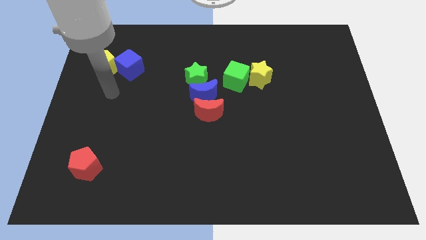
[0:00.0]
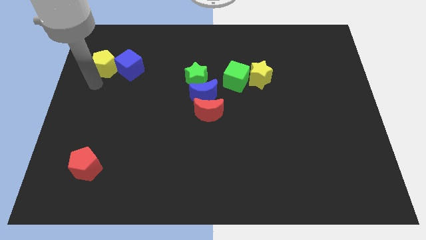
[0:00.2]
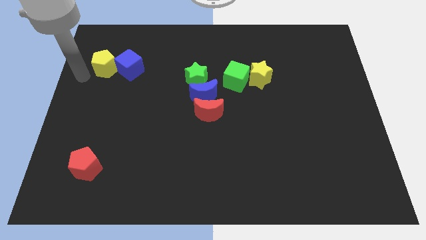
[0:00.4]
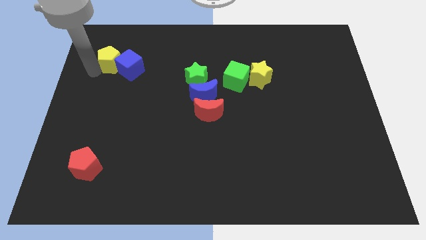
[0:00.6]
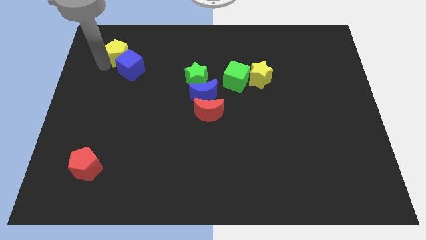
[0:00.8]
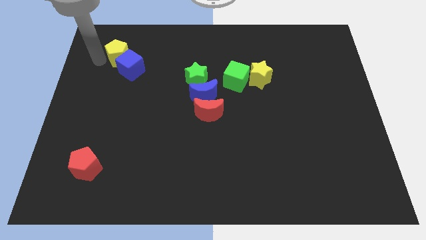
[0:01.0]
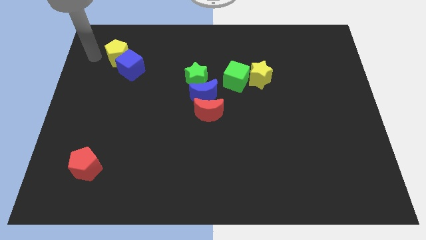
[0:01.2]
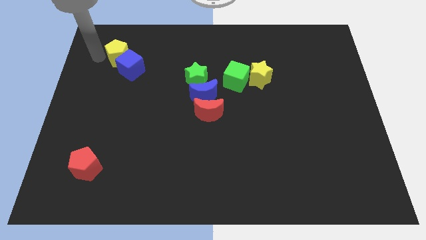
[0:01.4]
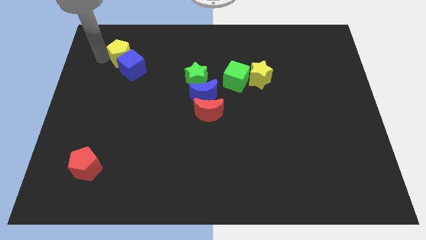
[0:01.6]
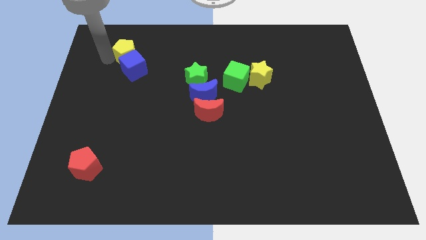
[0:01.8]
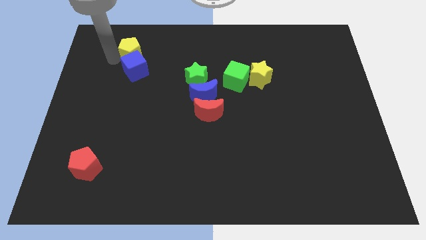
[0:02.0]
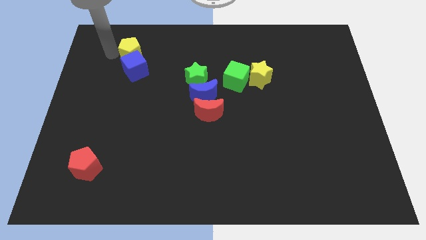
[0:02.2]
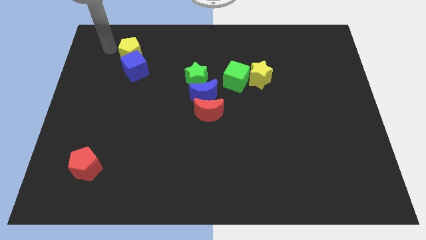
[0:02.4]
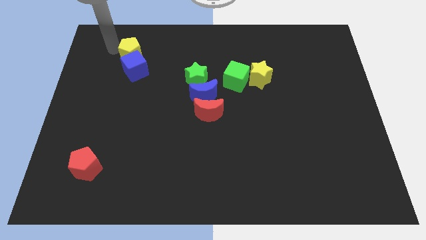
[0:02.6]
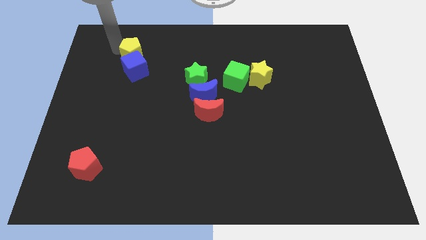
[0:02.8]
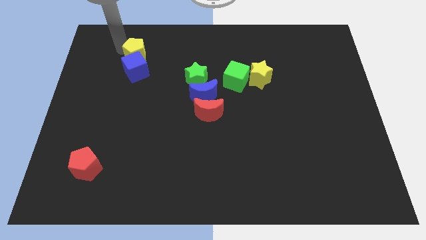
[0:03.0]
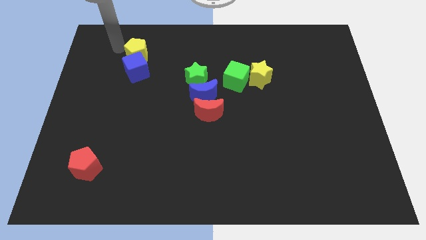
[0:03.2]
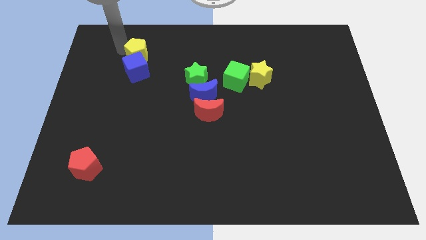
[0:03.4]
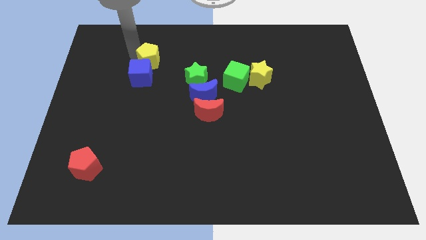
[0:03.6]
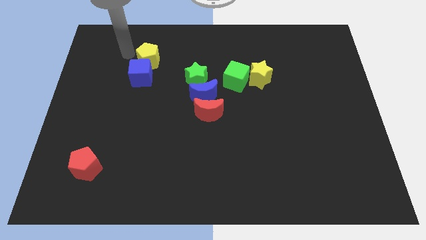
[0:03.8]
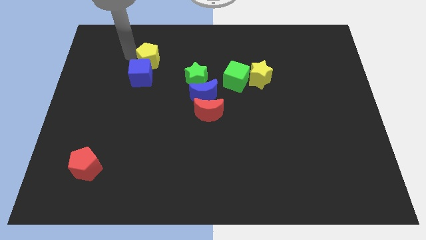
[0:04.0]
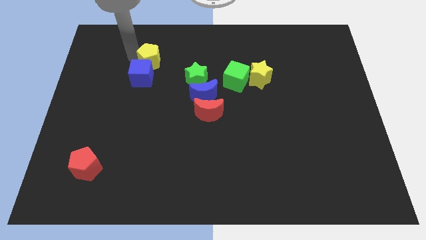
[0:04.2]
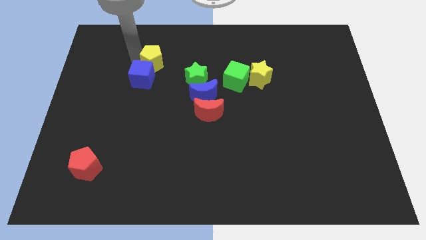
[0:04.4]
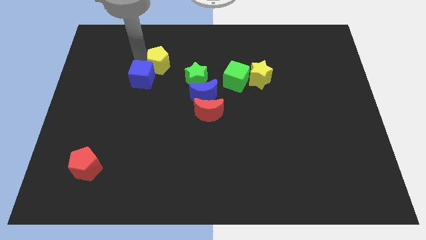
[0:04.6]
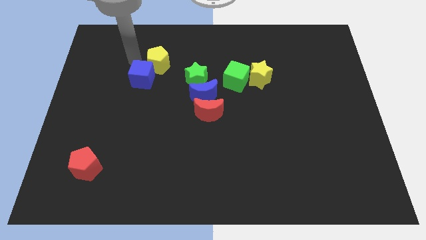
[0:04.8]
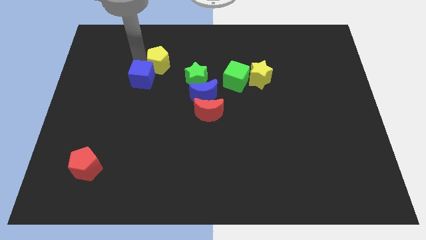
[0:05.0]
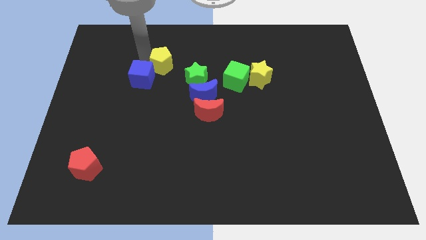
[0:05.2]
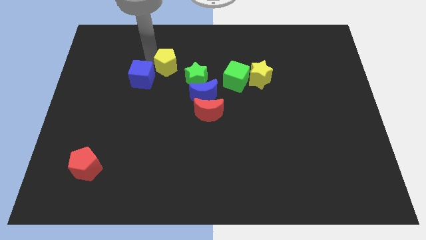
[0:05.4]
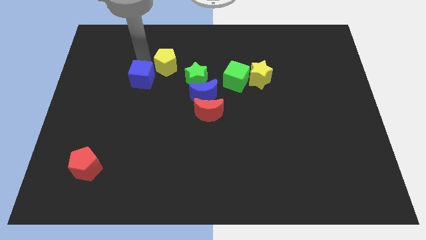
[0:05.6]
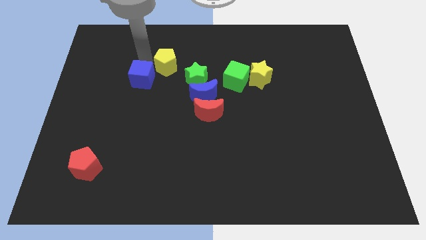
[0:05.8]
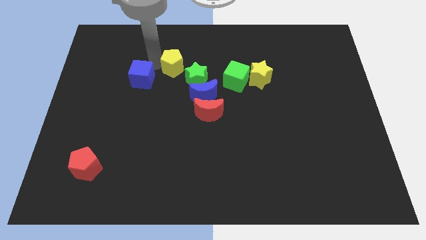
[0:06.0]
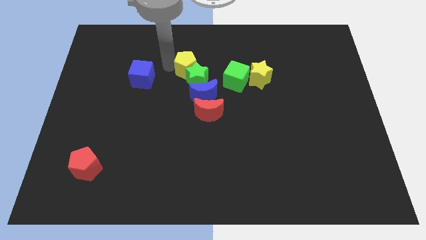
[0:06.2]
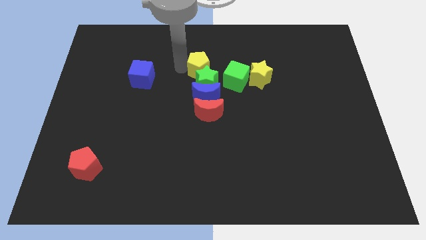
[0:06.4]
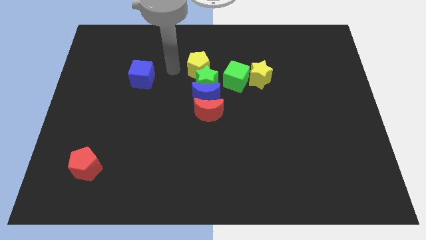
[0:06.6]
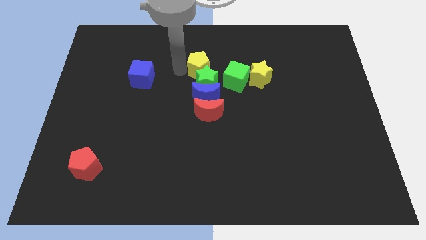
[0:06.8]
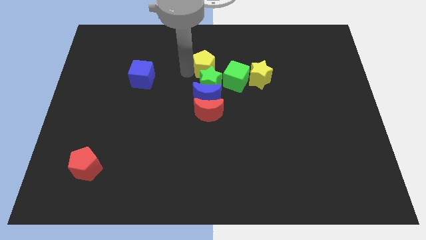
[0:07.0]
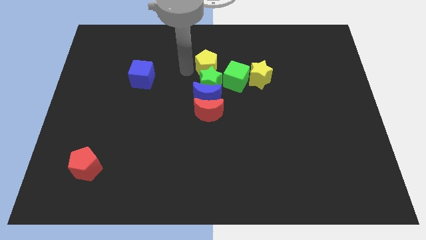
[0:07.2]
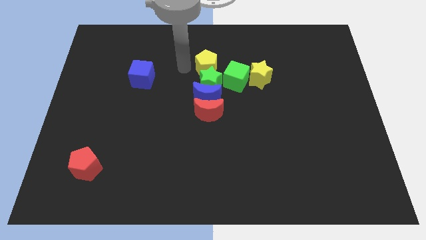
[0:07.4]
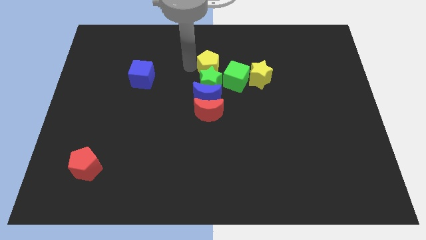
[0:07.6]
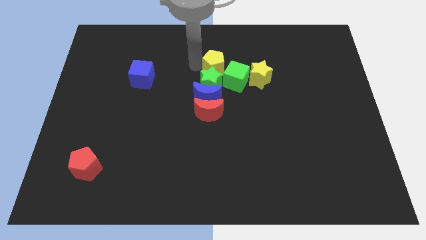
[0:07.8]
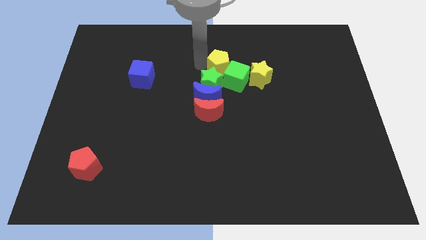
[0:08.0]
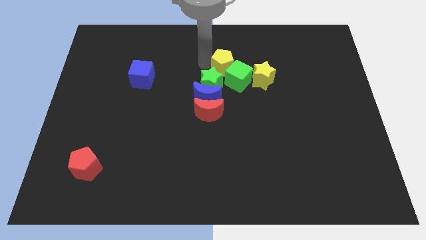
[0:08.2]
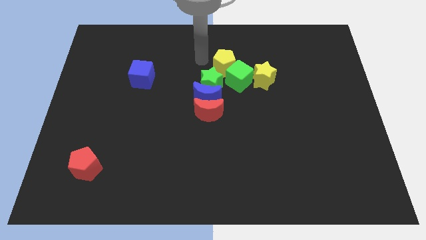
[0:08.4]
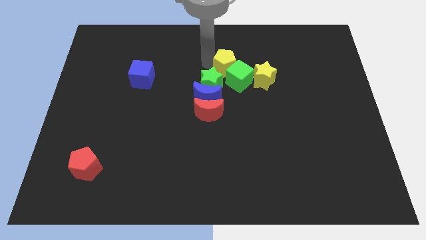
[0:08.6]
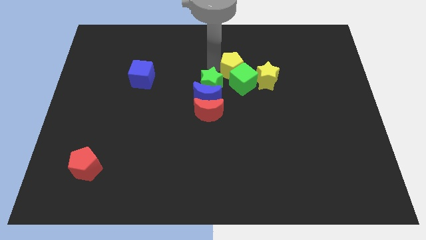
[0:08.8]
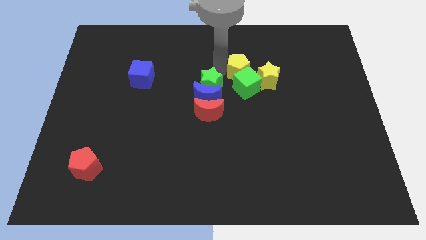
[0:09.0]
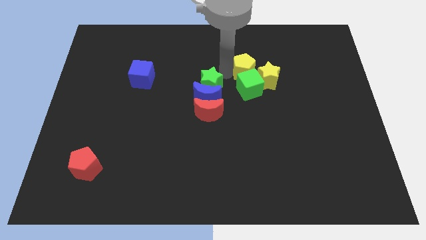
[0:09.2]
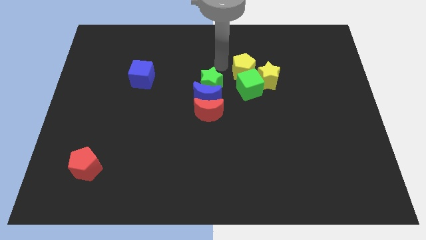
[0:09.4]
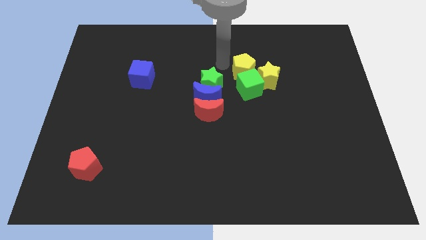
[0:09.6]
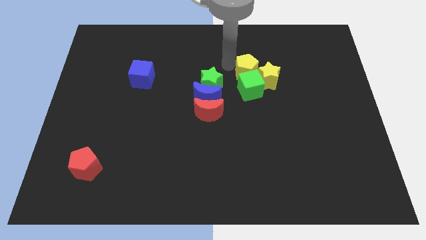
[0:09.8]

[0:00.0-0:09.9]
put the yellow pentagon close to the yellow star

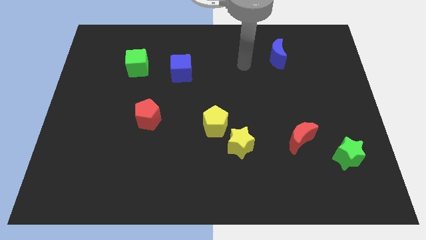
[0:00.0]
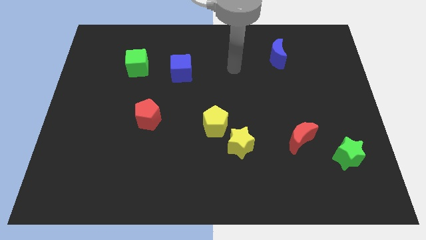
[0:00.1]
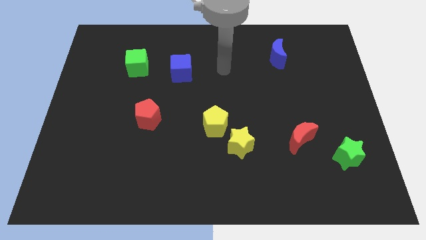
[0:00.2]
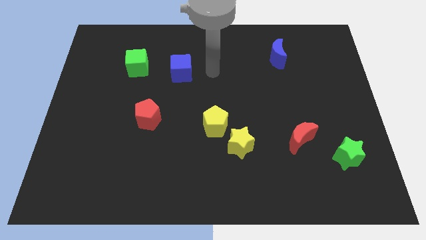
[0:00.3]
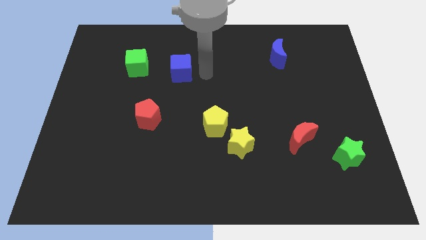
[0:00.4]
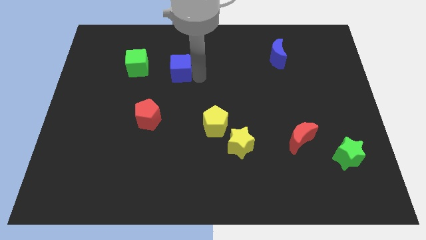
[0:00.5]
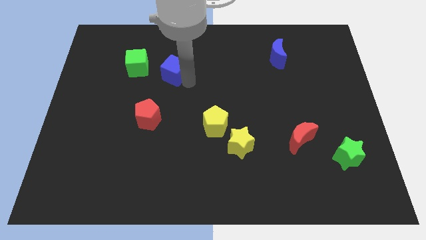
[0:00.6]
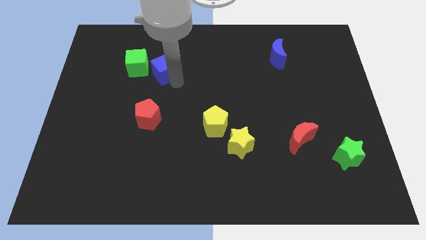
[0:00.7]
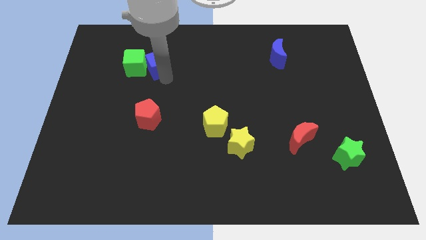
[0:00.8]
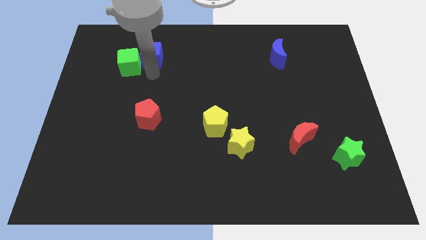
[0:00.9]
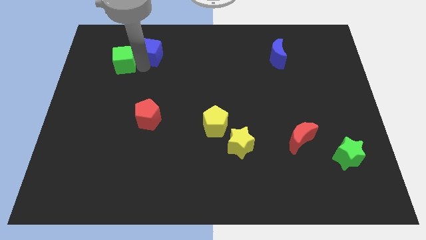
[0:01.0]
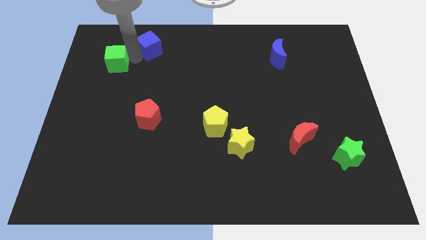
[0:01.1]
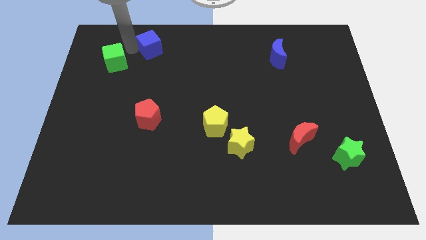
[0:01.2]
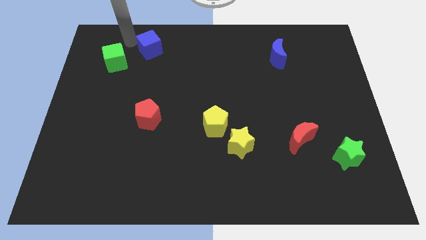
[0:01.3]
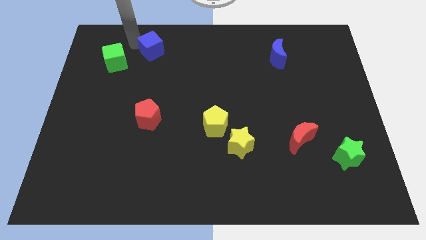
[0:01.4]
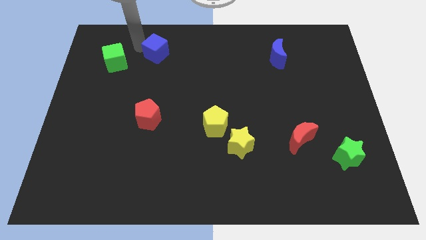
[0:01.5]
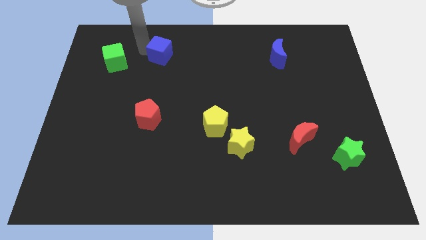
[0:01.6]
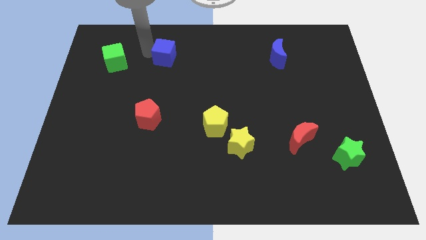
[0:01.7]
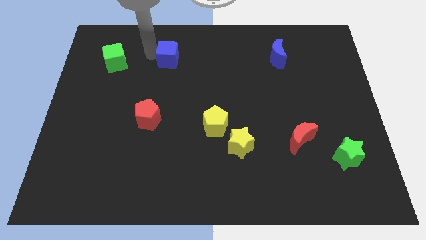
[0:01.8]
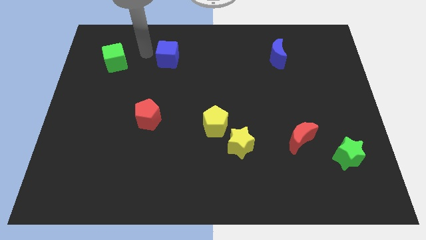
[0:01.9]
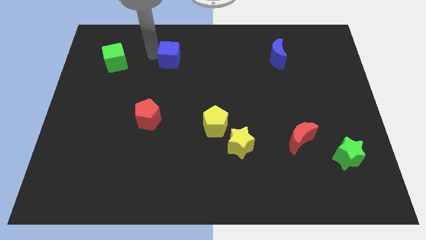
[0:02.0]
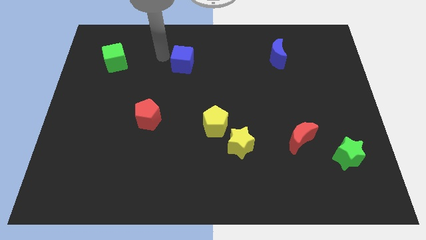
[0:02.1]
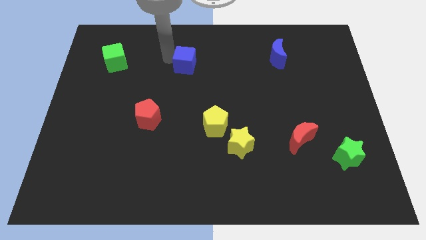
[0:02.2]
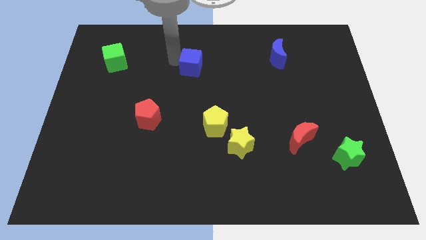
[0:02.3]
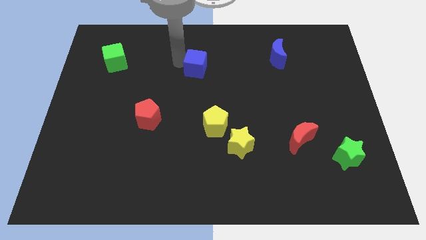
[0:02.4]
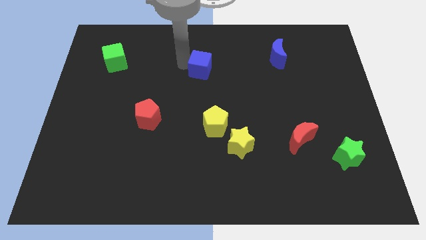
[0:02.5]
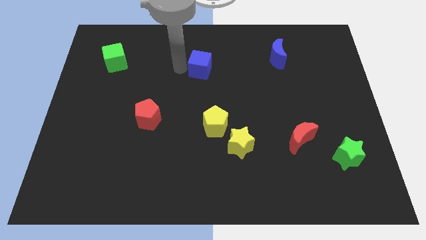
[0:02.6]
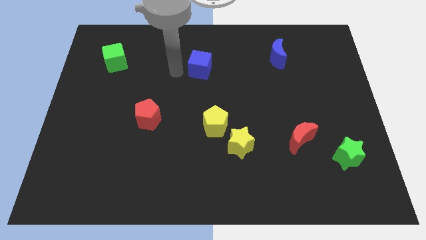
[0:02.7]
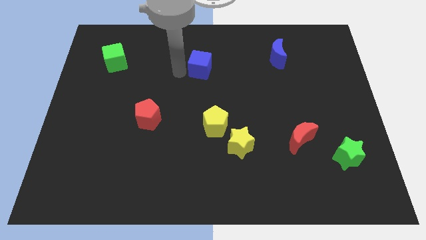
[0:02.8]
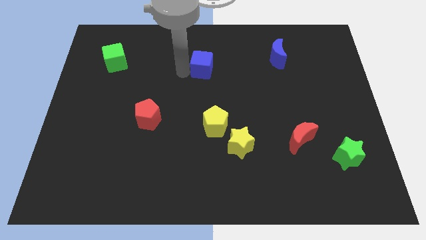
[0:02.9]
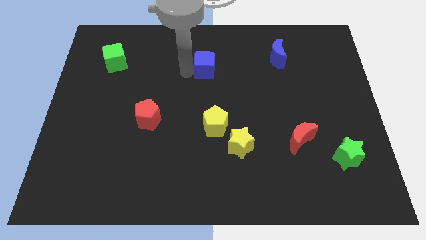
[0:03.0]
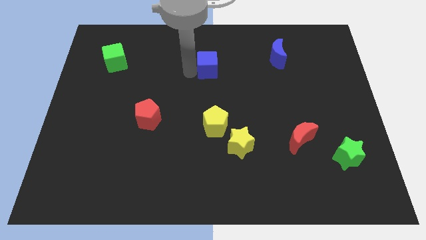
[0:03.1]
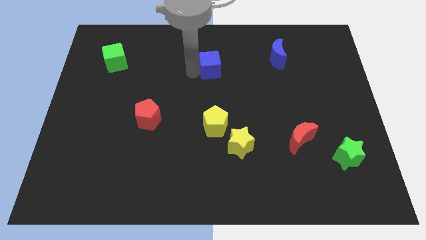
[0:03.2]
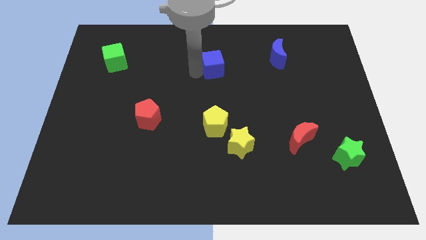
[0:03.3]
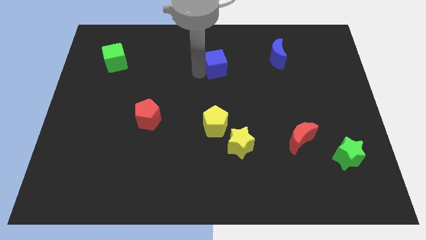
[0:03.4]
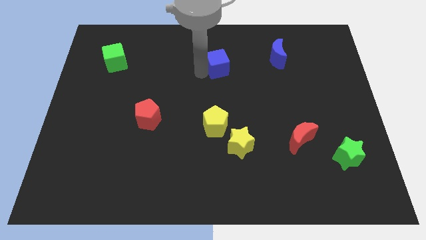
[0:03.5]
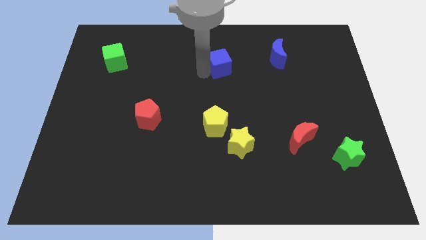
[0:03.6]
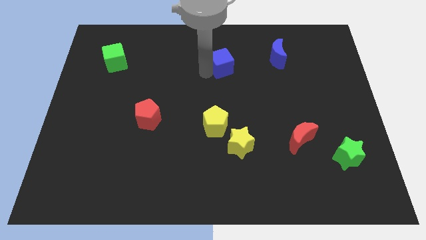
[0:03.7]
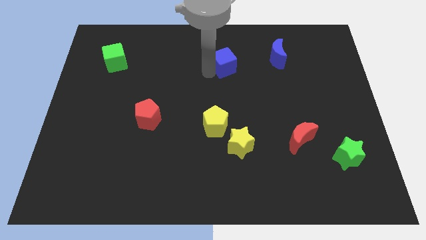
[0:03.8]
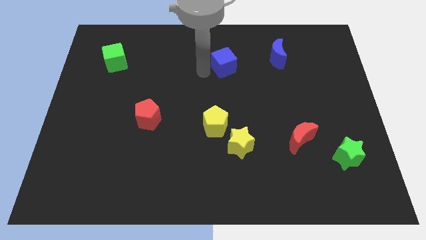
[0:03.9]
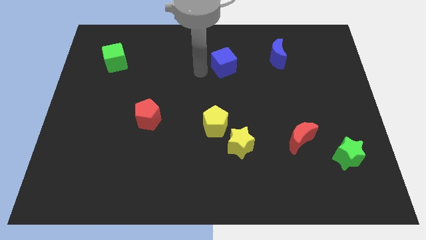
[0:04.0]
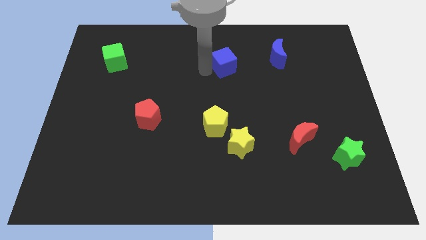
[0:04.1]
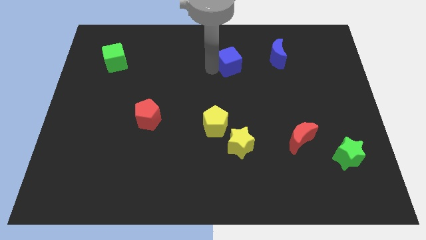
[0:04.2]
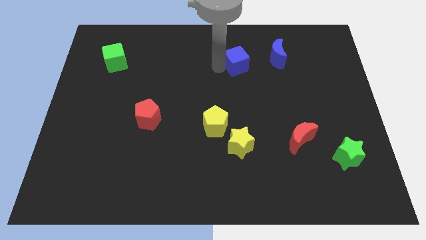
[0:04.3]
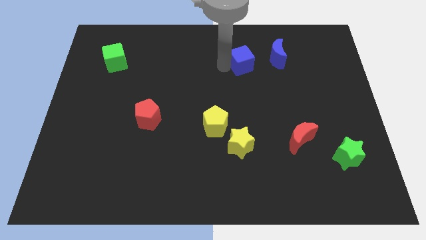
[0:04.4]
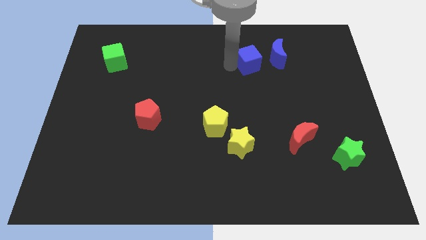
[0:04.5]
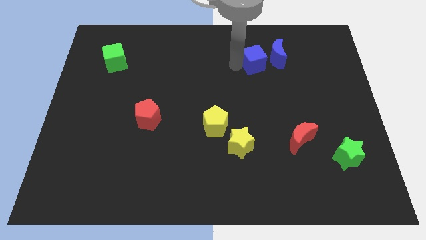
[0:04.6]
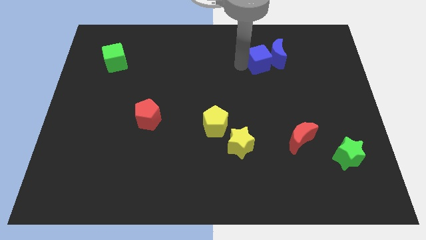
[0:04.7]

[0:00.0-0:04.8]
put the blue cube to the blue moon
